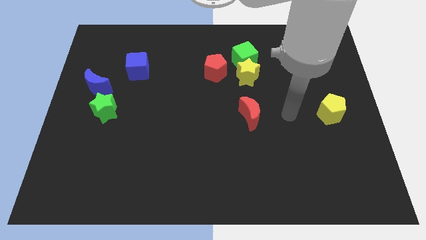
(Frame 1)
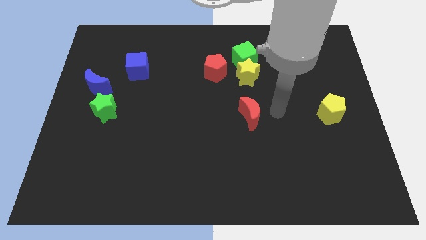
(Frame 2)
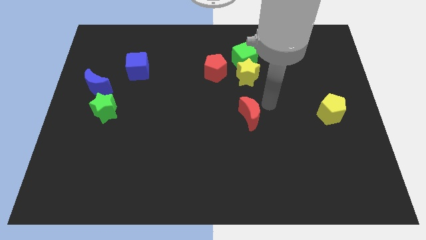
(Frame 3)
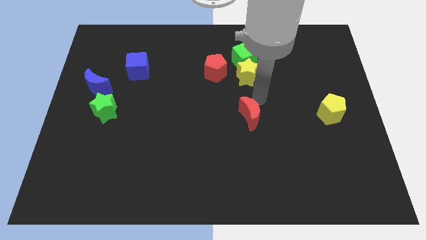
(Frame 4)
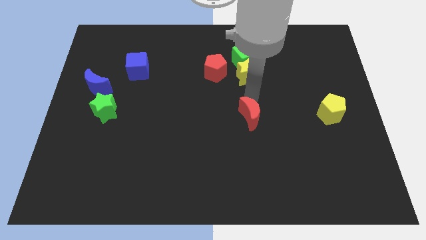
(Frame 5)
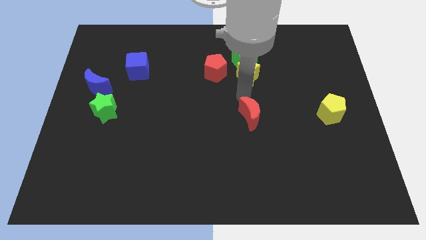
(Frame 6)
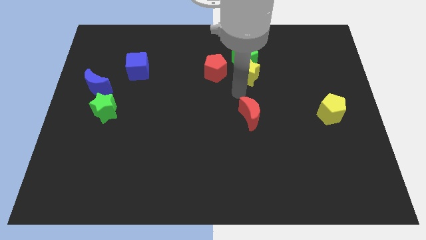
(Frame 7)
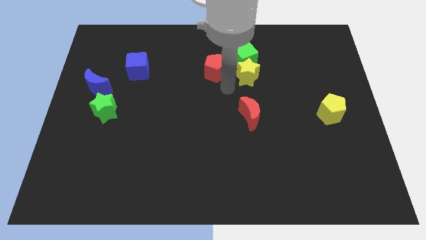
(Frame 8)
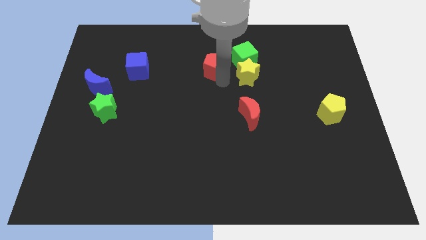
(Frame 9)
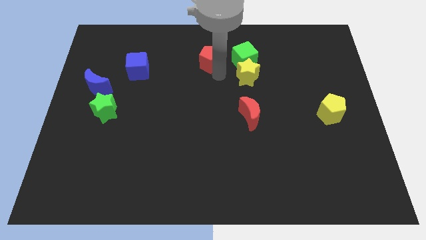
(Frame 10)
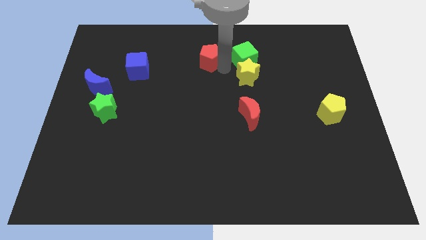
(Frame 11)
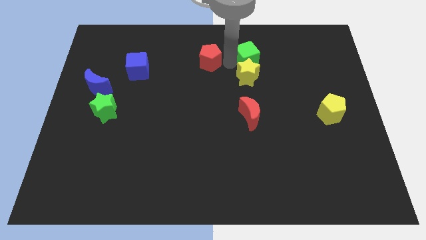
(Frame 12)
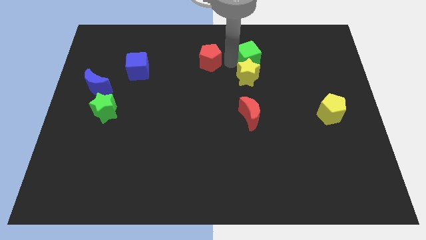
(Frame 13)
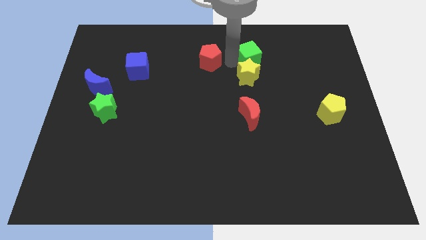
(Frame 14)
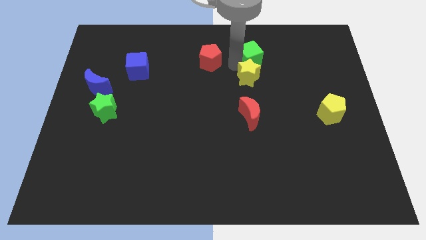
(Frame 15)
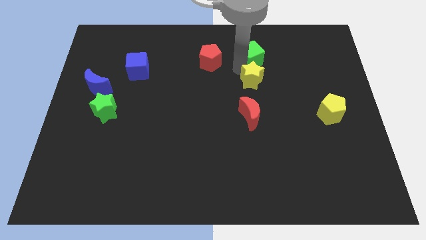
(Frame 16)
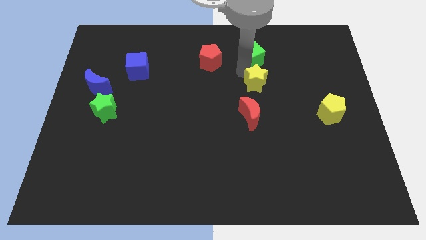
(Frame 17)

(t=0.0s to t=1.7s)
pull the yellow star apart from the green cube and red pentagon

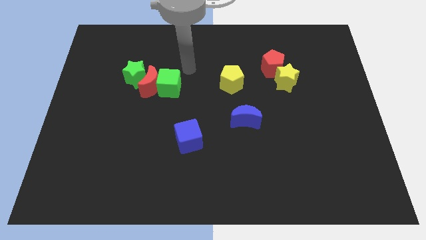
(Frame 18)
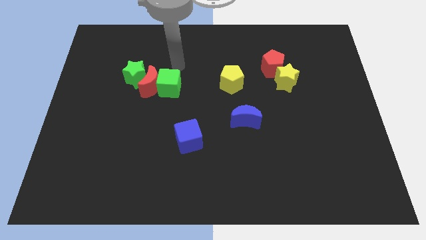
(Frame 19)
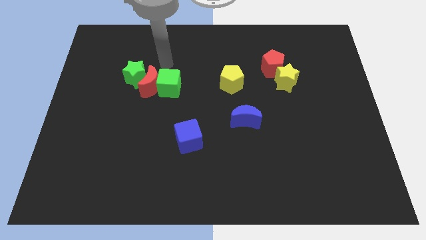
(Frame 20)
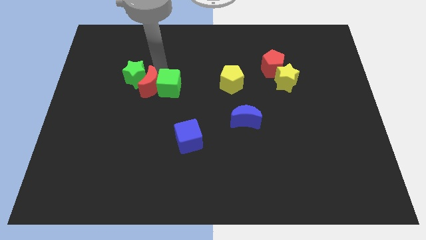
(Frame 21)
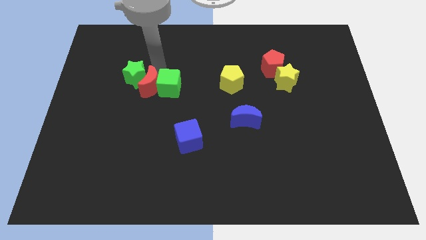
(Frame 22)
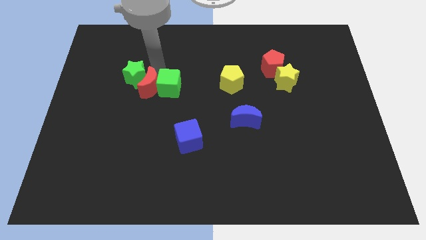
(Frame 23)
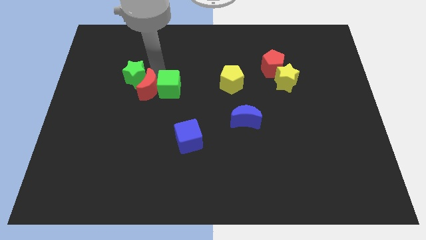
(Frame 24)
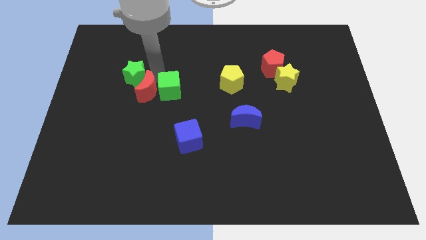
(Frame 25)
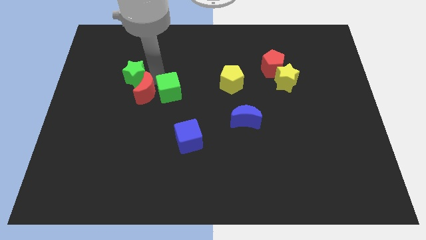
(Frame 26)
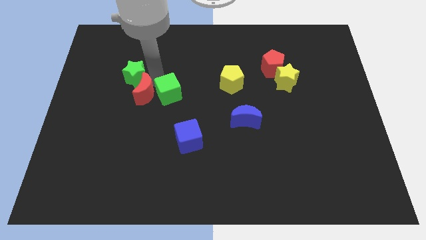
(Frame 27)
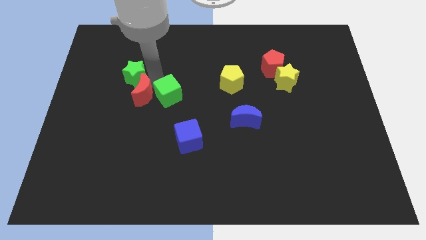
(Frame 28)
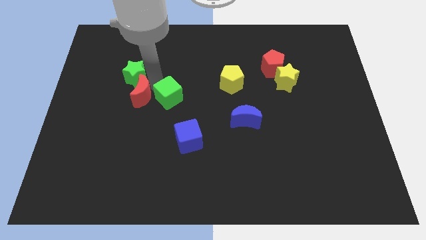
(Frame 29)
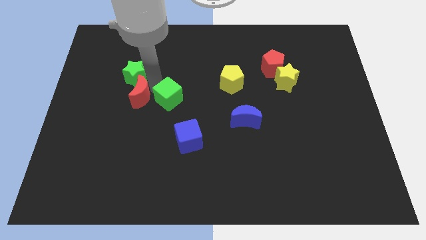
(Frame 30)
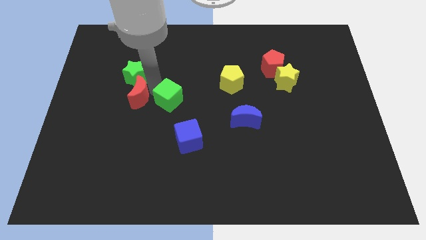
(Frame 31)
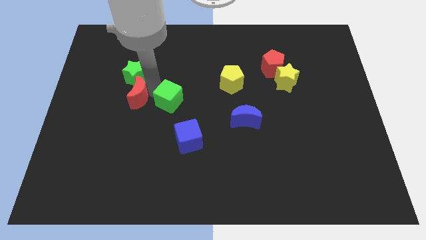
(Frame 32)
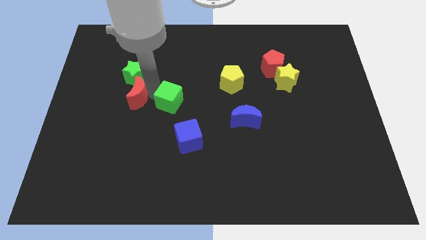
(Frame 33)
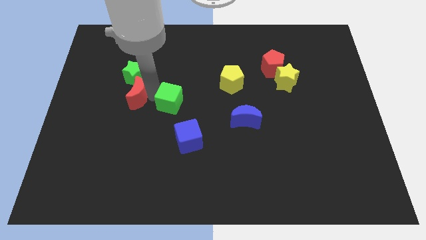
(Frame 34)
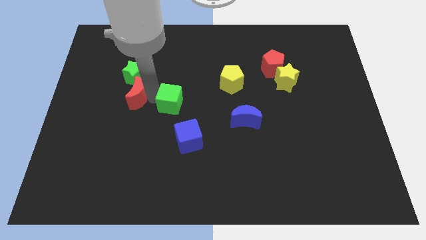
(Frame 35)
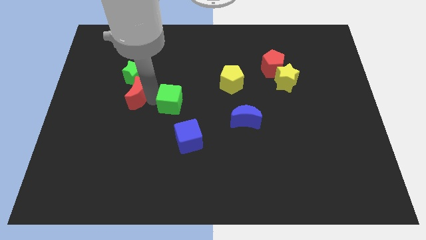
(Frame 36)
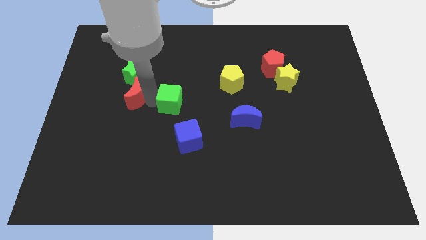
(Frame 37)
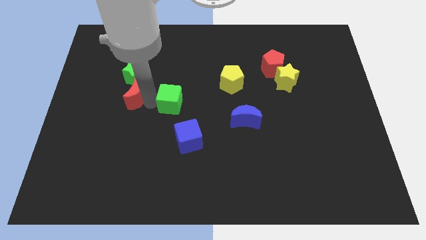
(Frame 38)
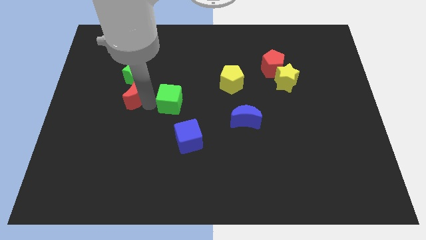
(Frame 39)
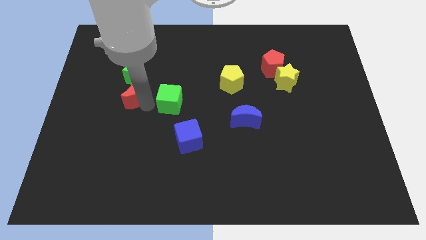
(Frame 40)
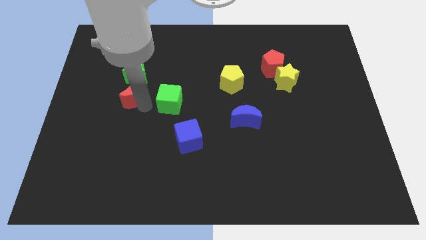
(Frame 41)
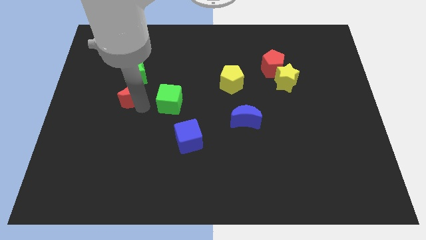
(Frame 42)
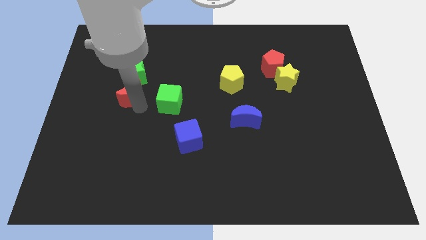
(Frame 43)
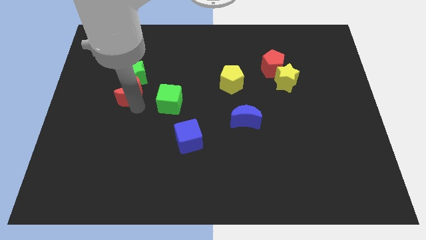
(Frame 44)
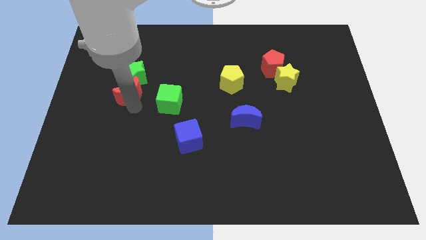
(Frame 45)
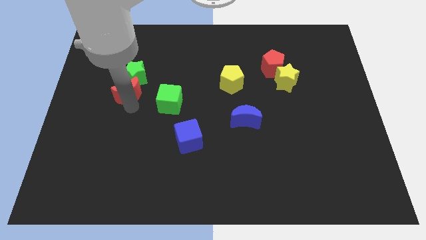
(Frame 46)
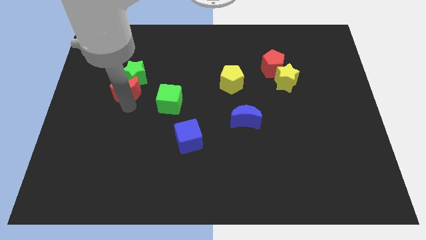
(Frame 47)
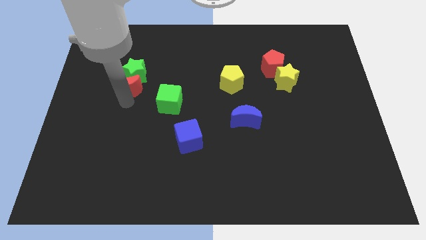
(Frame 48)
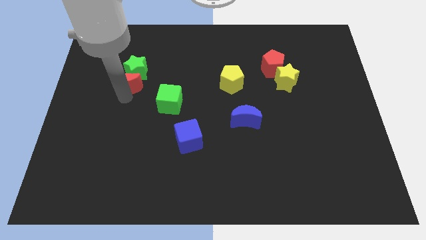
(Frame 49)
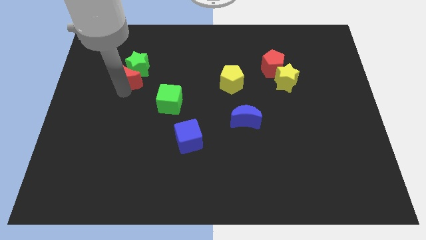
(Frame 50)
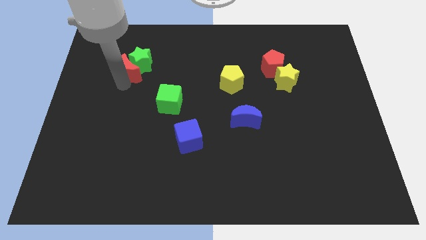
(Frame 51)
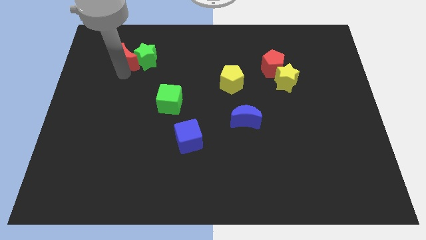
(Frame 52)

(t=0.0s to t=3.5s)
pull the red moon apart from the green cube and green star

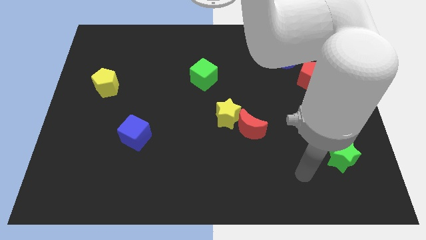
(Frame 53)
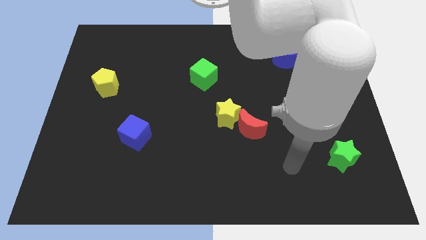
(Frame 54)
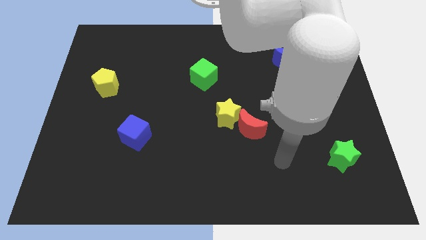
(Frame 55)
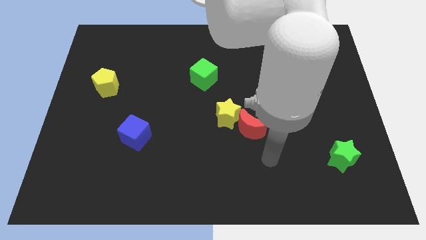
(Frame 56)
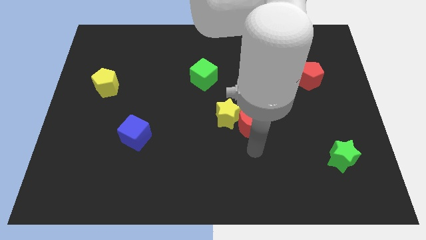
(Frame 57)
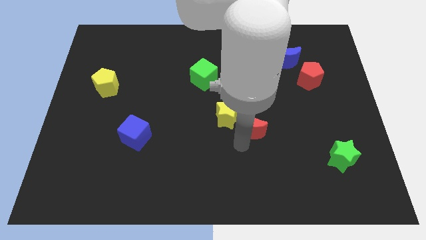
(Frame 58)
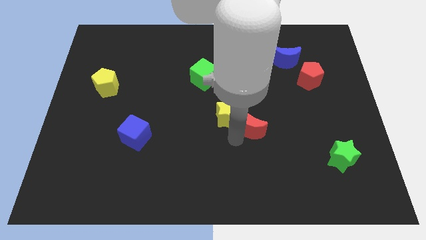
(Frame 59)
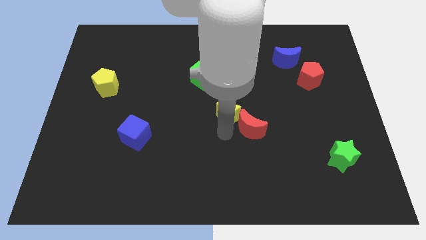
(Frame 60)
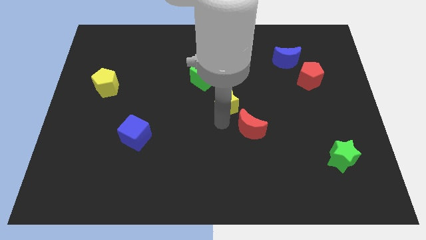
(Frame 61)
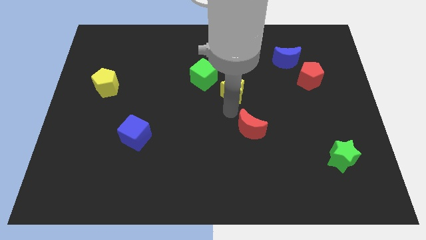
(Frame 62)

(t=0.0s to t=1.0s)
move the red moon away from the yellow star

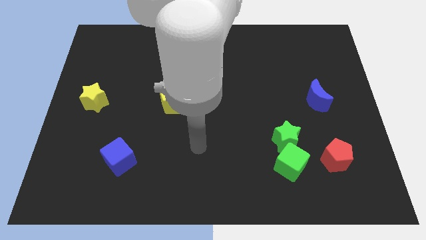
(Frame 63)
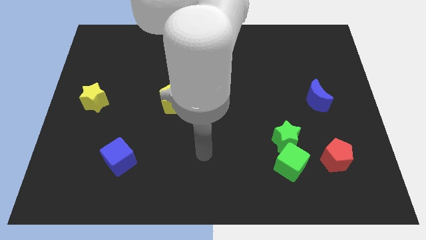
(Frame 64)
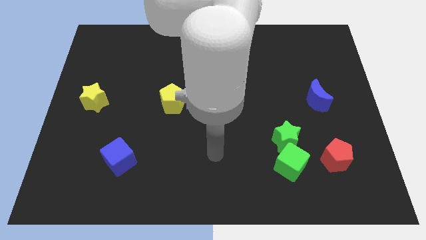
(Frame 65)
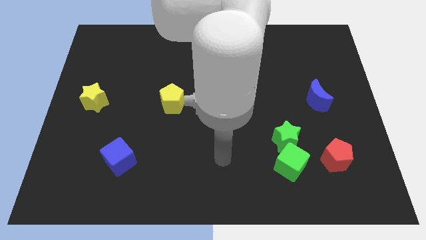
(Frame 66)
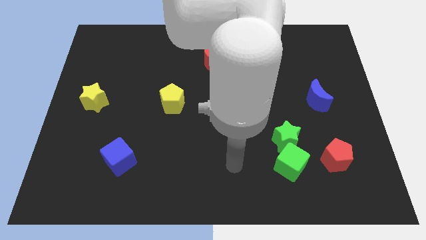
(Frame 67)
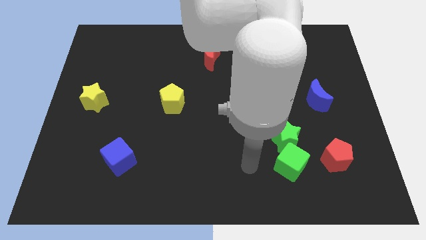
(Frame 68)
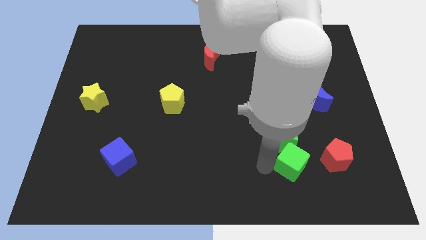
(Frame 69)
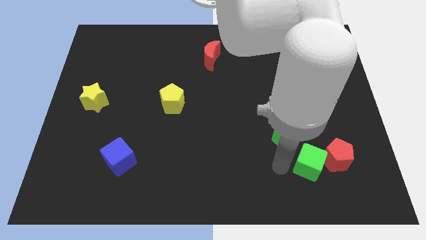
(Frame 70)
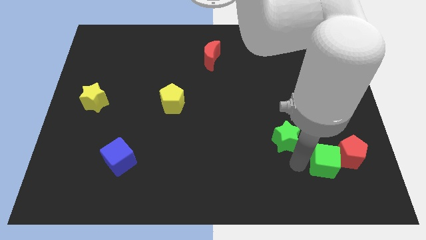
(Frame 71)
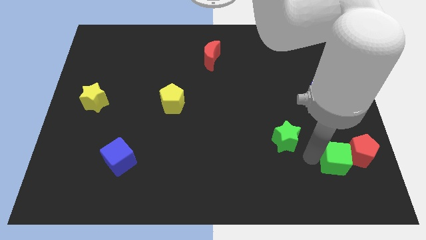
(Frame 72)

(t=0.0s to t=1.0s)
pull the green star apart from the green cube

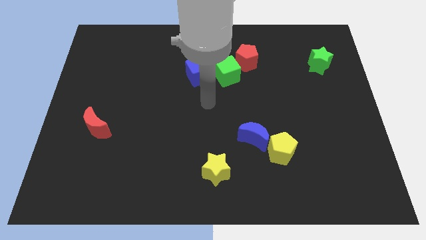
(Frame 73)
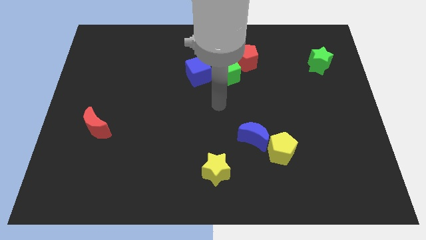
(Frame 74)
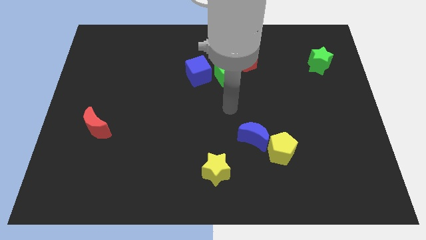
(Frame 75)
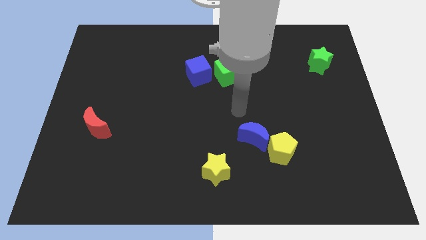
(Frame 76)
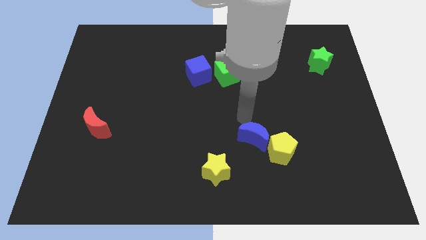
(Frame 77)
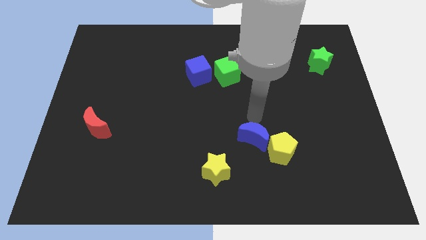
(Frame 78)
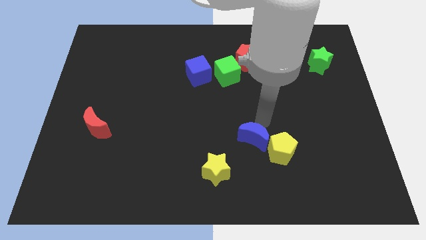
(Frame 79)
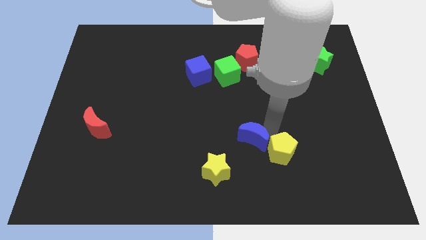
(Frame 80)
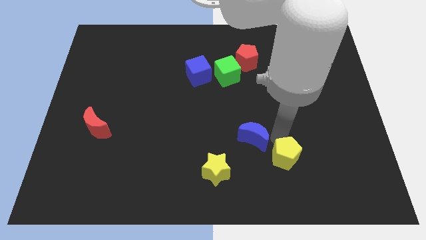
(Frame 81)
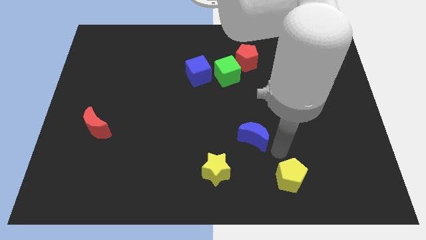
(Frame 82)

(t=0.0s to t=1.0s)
pull the blue moon apart from the yellow pentagon

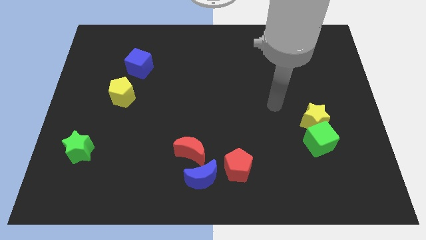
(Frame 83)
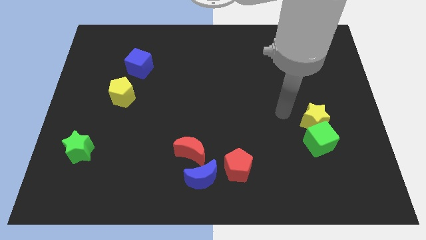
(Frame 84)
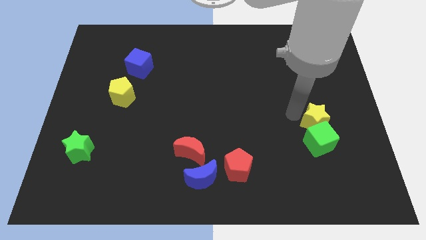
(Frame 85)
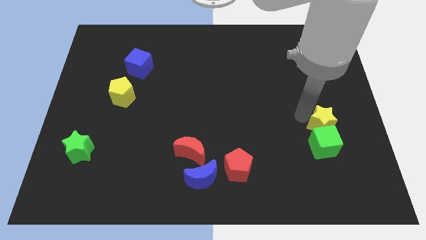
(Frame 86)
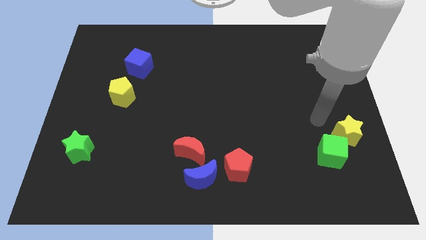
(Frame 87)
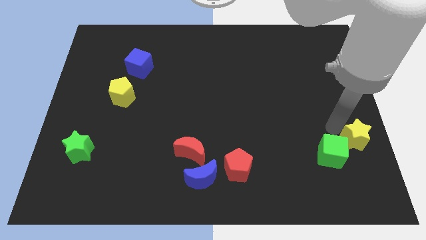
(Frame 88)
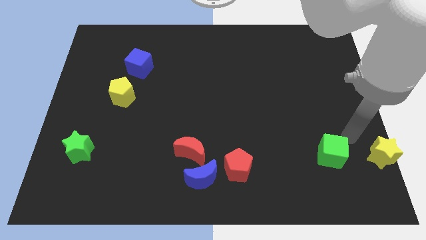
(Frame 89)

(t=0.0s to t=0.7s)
pull the green cube apart from the yellow star

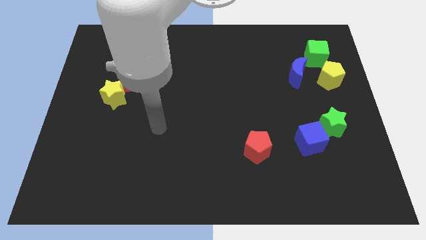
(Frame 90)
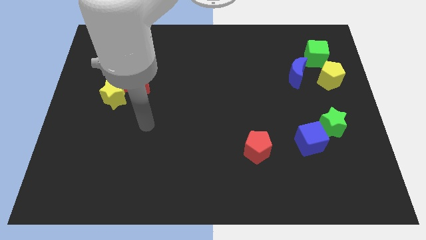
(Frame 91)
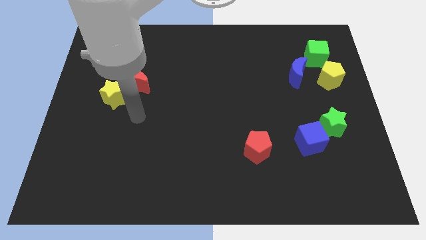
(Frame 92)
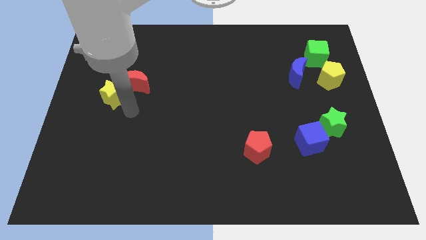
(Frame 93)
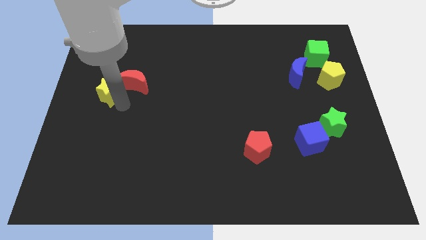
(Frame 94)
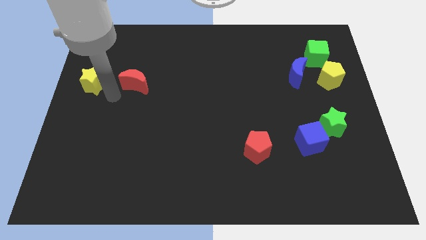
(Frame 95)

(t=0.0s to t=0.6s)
pull the red moon apart from the yellow star
